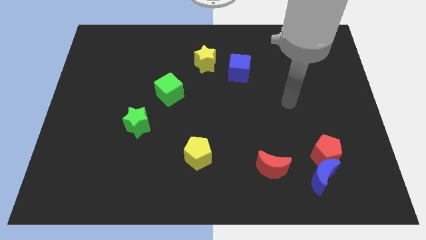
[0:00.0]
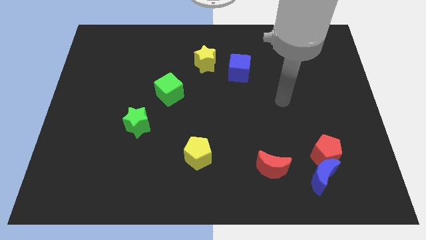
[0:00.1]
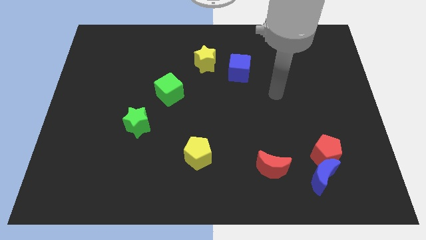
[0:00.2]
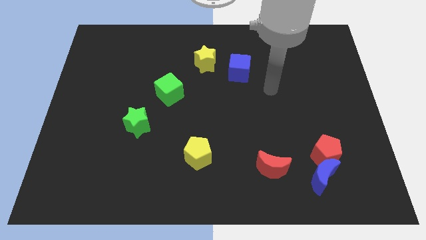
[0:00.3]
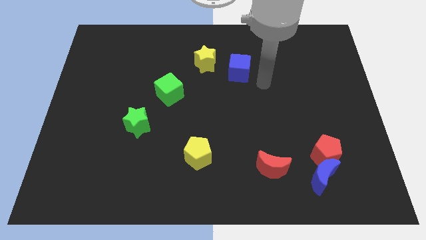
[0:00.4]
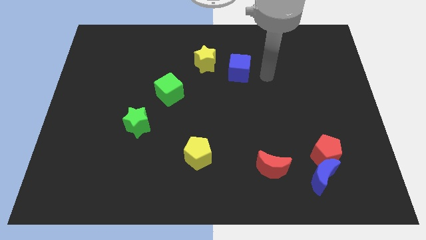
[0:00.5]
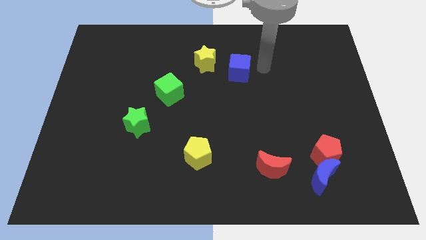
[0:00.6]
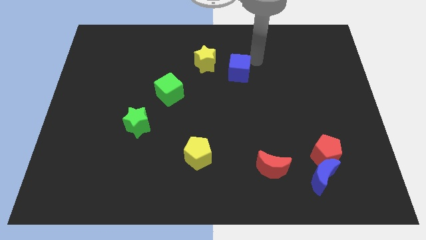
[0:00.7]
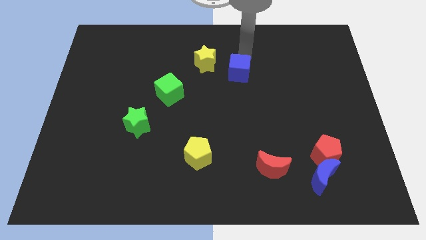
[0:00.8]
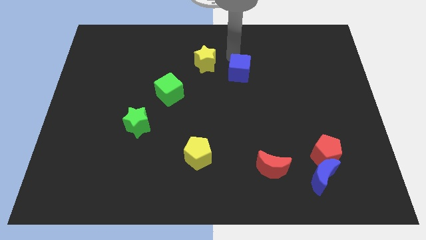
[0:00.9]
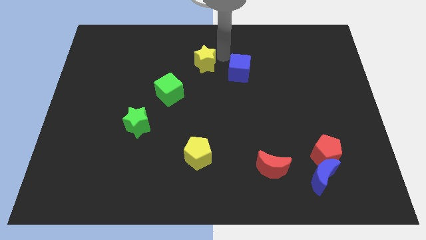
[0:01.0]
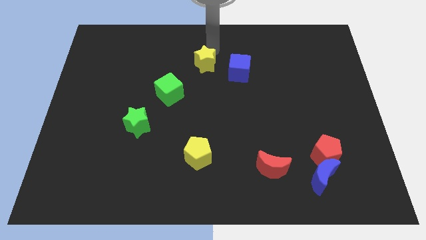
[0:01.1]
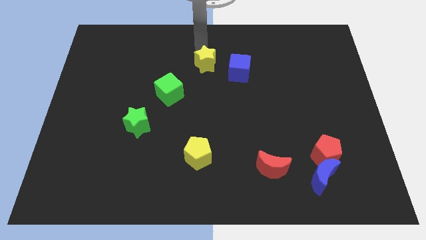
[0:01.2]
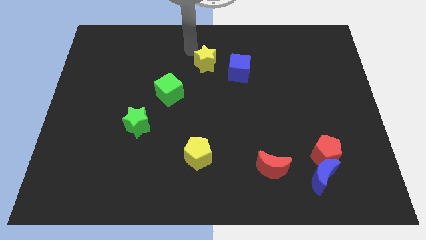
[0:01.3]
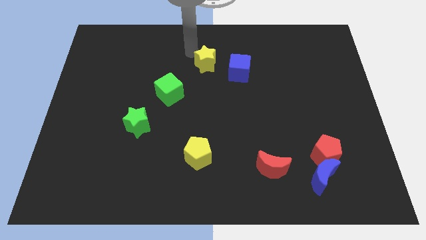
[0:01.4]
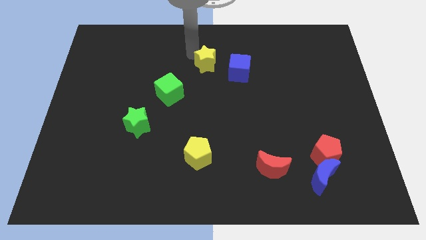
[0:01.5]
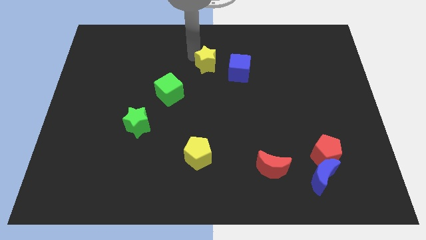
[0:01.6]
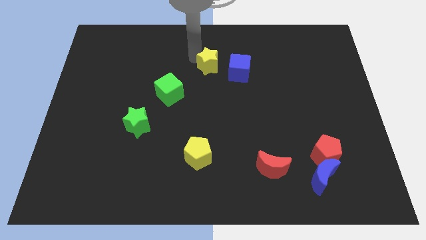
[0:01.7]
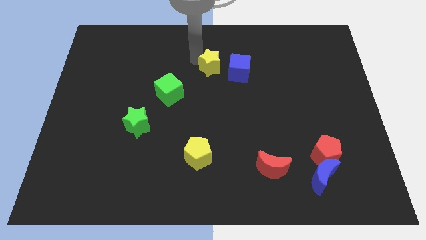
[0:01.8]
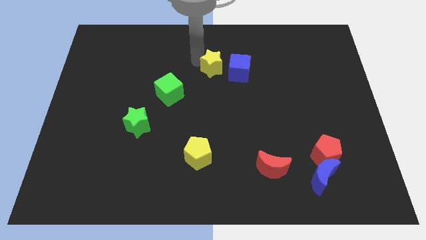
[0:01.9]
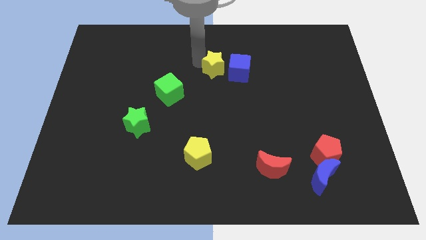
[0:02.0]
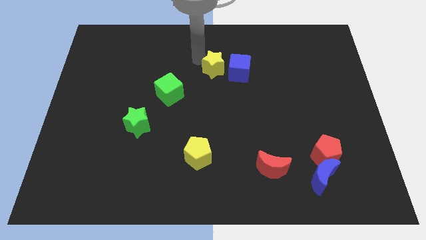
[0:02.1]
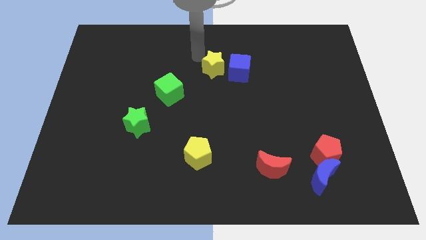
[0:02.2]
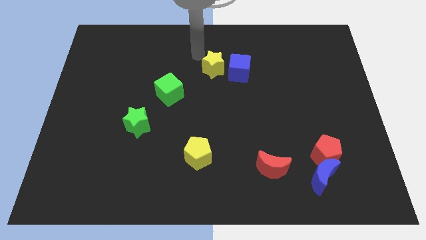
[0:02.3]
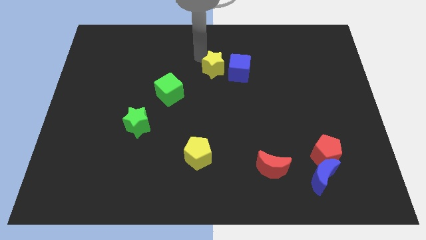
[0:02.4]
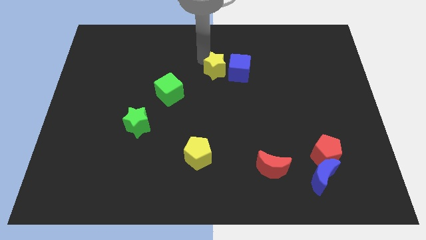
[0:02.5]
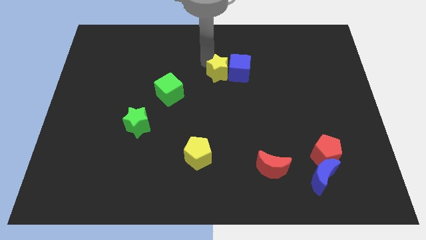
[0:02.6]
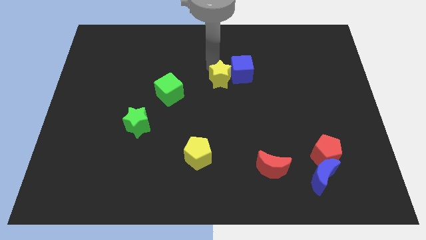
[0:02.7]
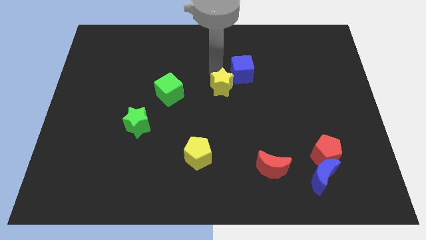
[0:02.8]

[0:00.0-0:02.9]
slightly move the yellow star diagonally down and right

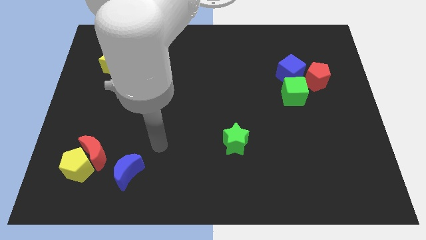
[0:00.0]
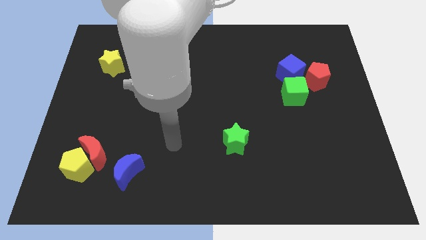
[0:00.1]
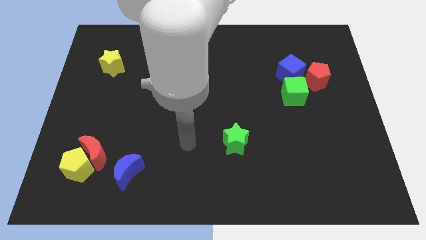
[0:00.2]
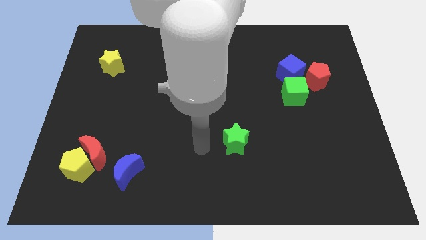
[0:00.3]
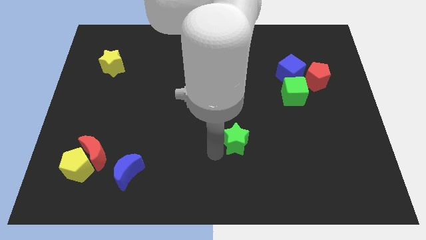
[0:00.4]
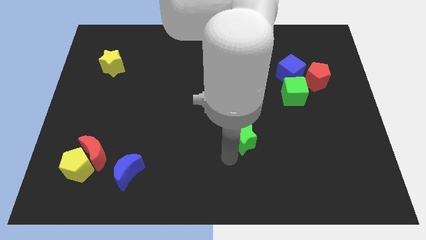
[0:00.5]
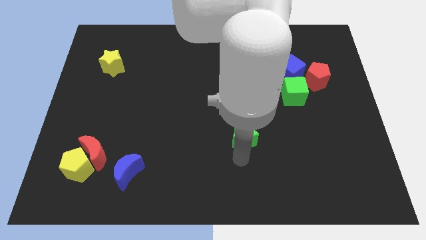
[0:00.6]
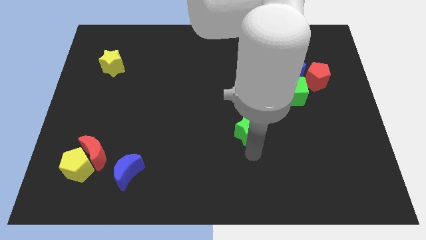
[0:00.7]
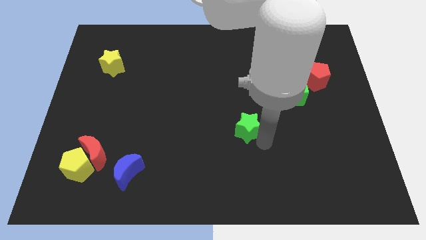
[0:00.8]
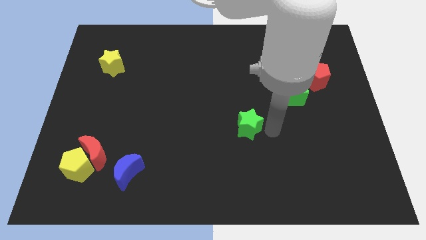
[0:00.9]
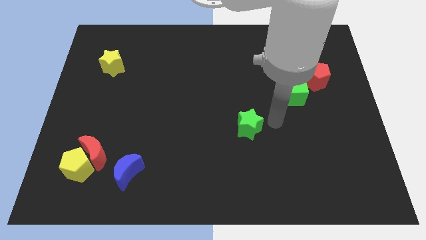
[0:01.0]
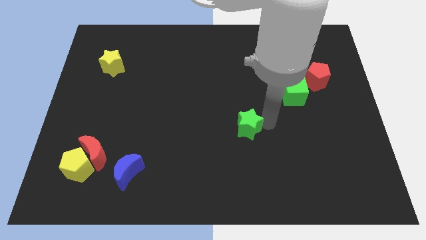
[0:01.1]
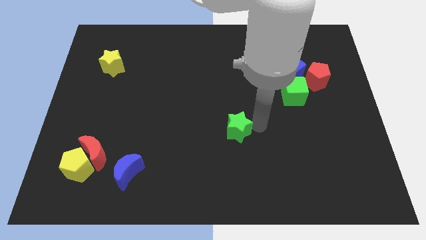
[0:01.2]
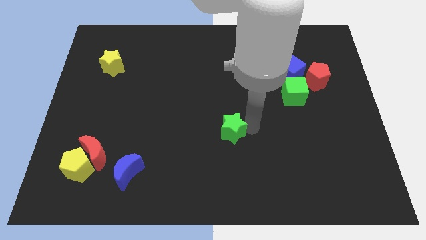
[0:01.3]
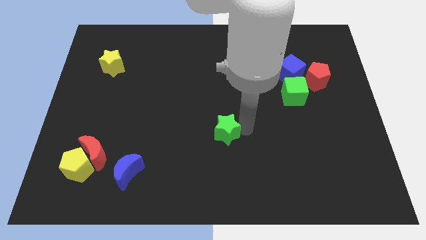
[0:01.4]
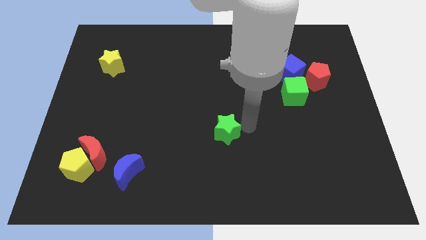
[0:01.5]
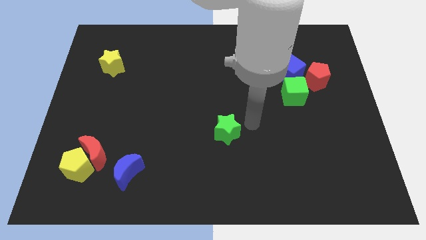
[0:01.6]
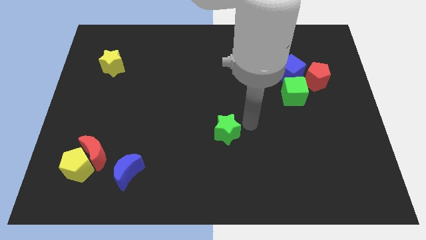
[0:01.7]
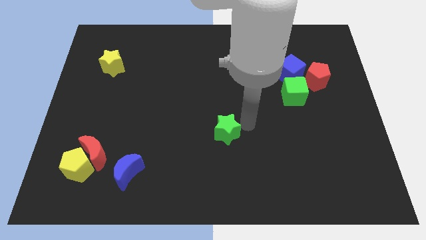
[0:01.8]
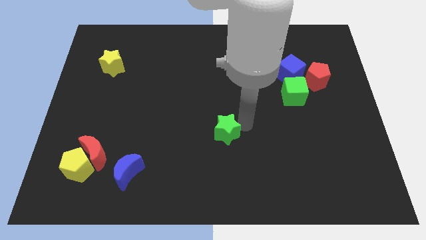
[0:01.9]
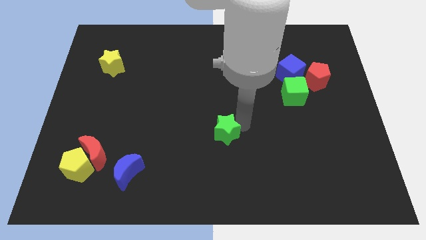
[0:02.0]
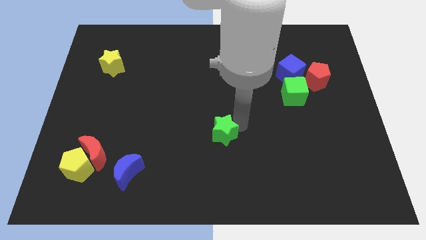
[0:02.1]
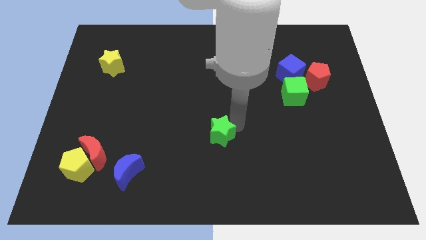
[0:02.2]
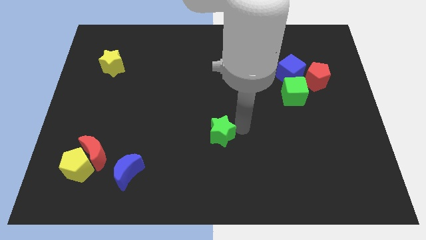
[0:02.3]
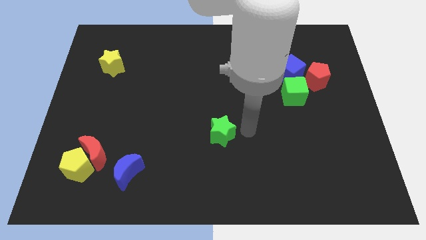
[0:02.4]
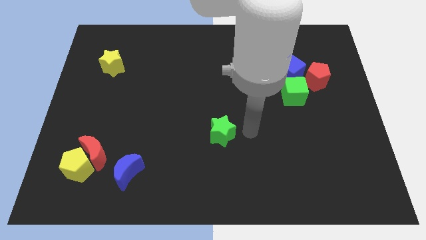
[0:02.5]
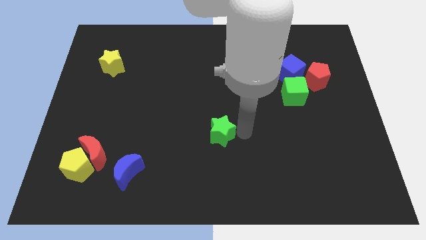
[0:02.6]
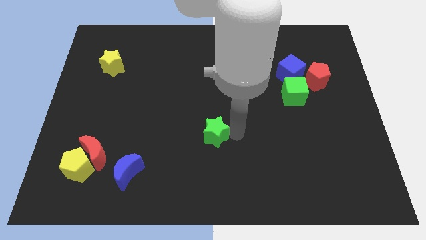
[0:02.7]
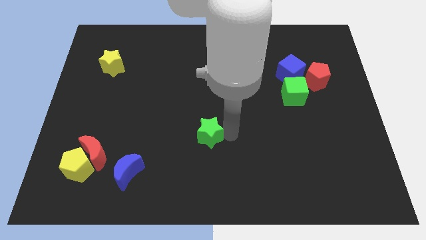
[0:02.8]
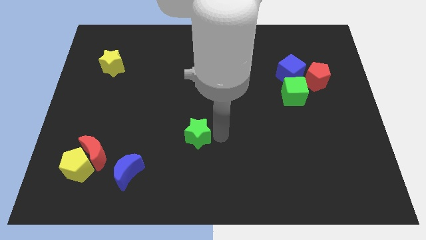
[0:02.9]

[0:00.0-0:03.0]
push the green star to the left a little

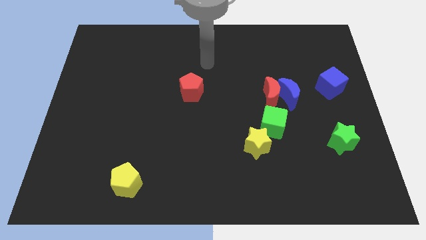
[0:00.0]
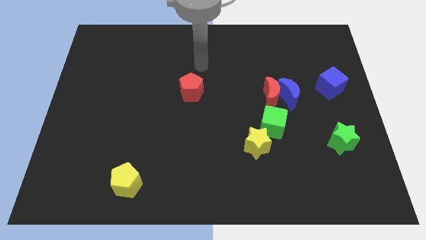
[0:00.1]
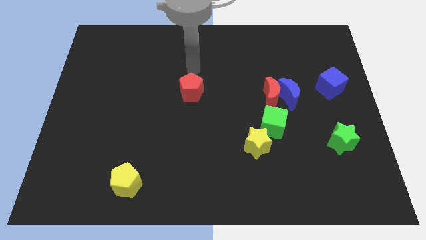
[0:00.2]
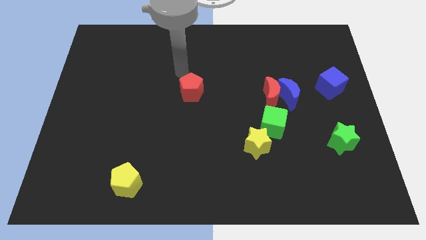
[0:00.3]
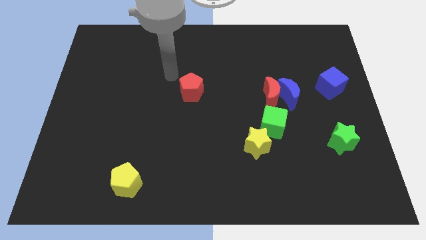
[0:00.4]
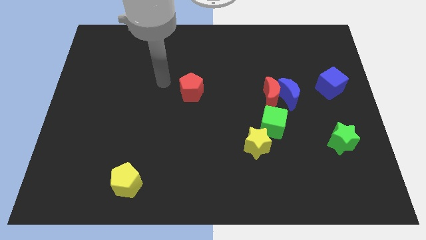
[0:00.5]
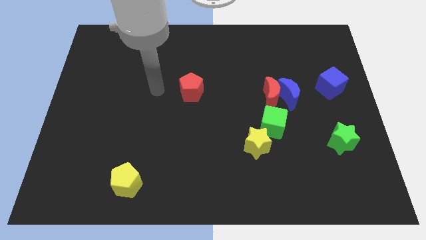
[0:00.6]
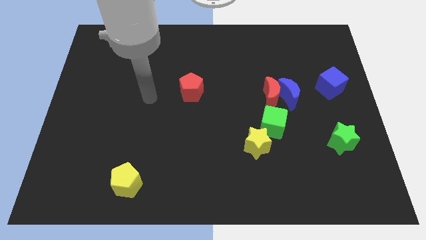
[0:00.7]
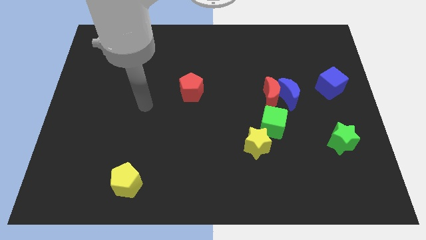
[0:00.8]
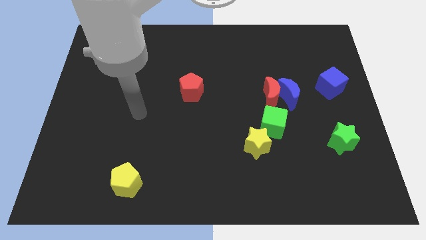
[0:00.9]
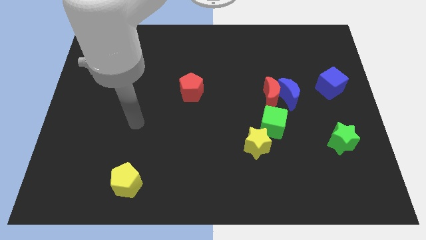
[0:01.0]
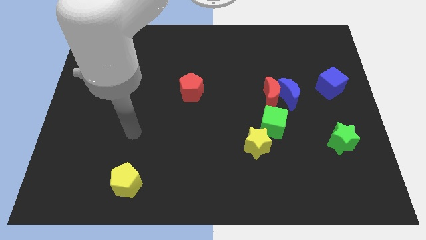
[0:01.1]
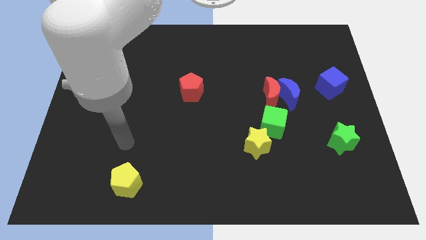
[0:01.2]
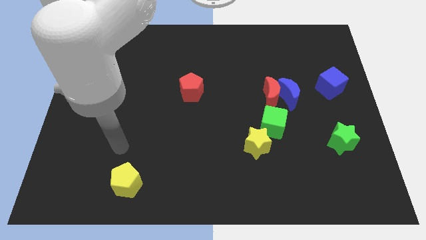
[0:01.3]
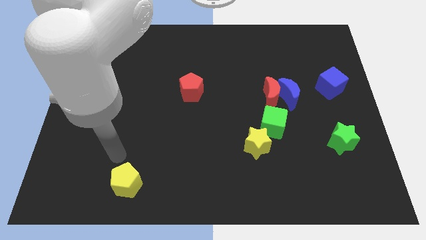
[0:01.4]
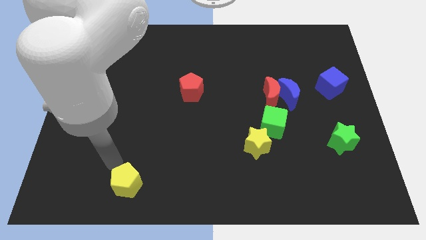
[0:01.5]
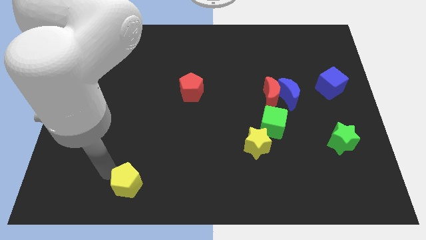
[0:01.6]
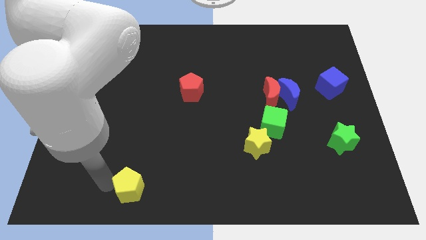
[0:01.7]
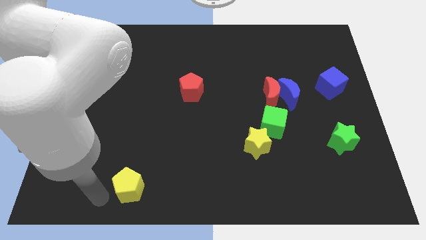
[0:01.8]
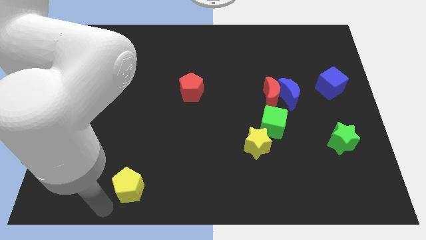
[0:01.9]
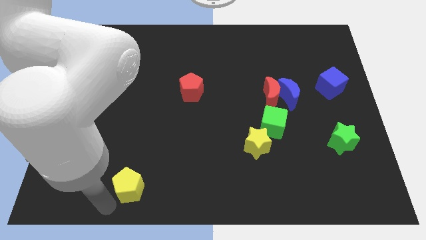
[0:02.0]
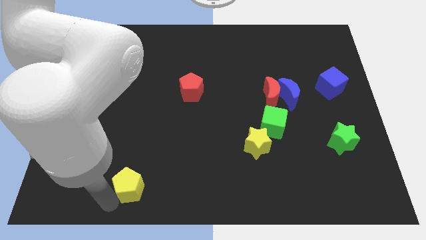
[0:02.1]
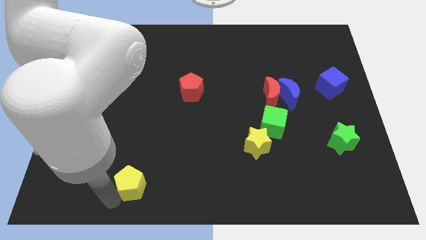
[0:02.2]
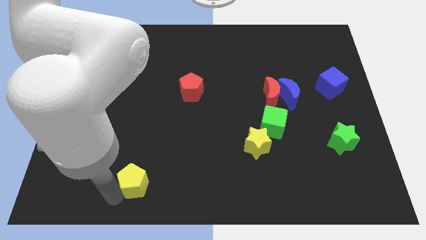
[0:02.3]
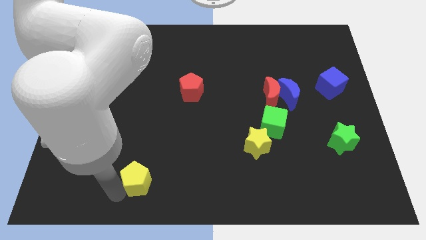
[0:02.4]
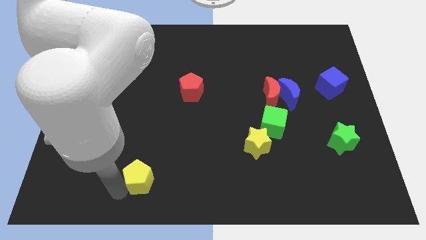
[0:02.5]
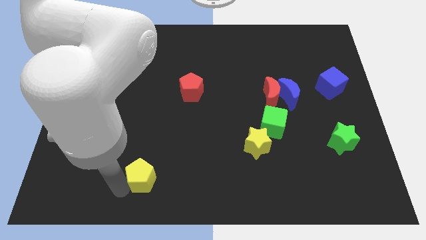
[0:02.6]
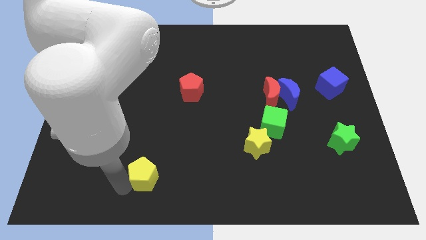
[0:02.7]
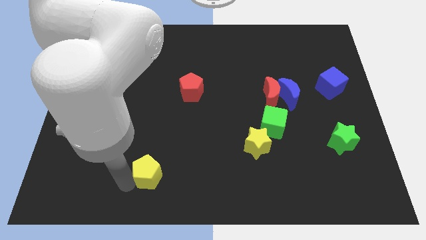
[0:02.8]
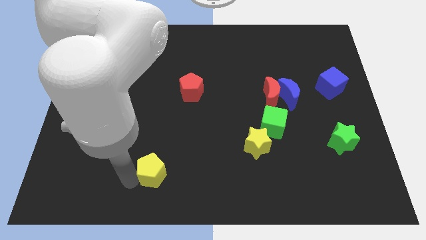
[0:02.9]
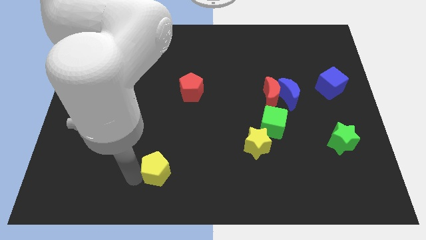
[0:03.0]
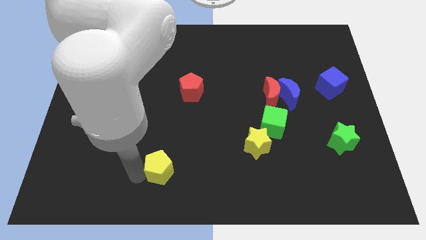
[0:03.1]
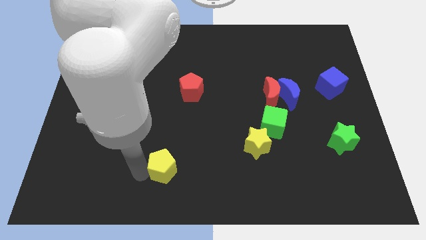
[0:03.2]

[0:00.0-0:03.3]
push the yellow pentagon upwards and then right somewhat
